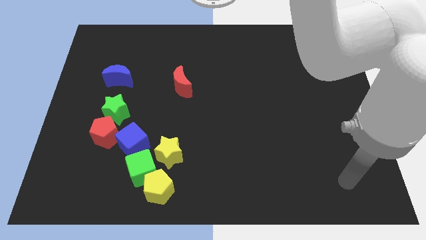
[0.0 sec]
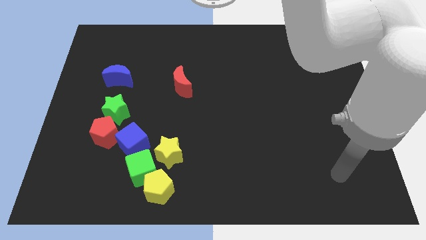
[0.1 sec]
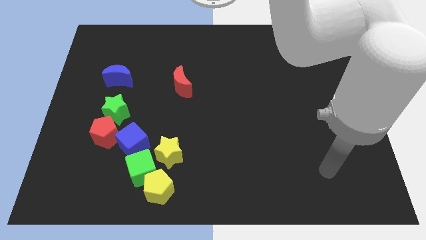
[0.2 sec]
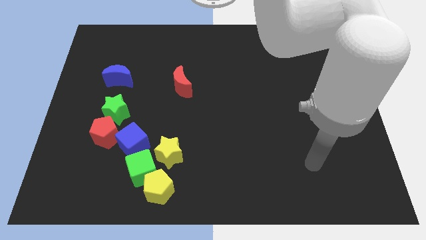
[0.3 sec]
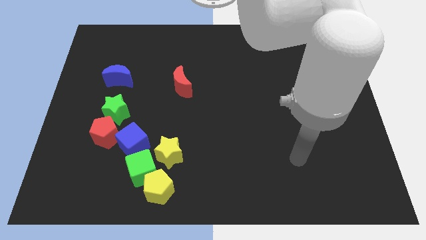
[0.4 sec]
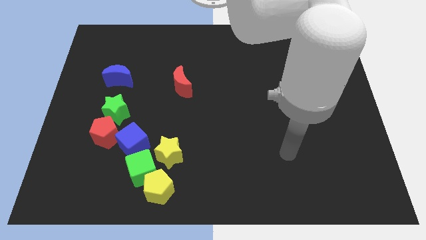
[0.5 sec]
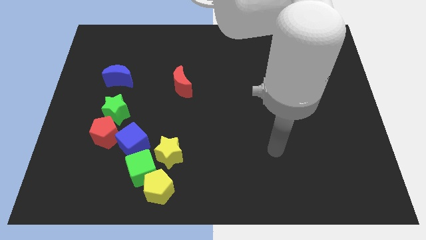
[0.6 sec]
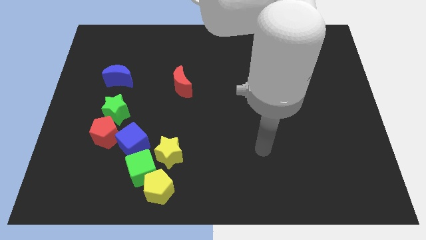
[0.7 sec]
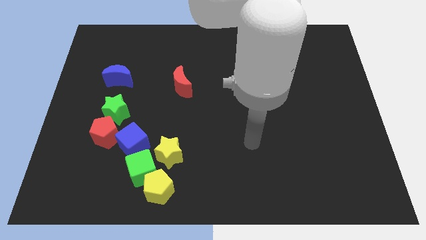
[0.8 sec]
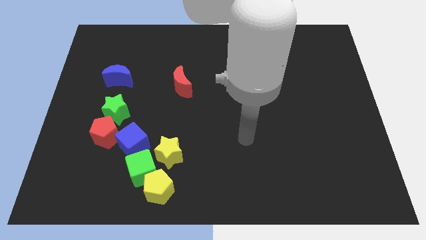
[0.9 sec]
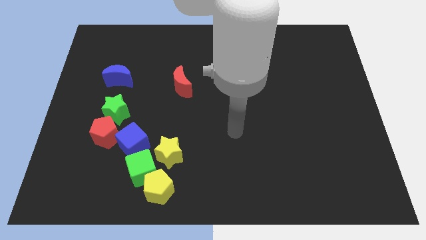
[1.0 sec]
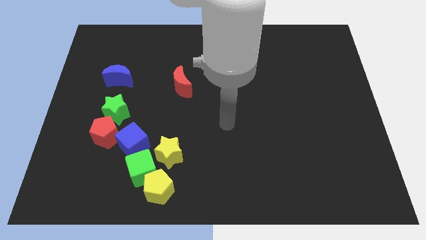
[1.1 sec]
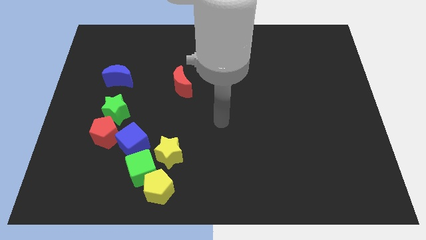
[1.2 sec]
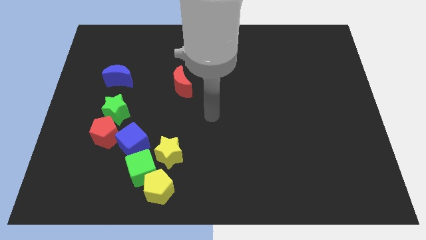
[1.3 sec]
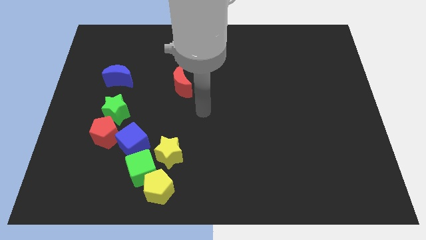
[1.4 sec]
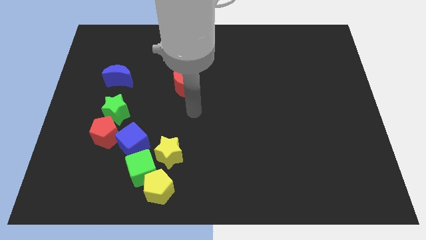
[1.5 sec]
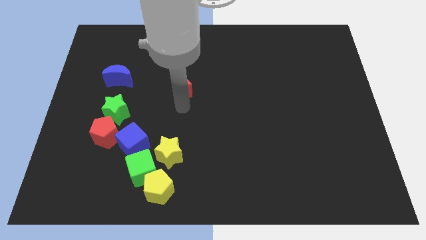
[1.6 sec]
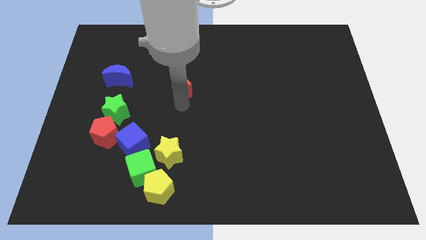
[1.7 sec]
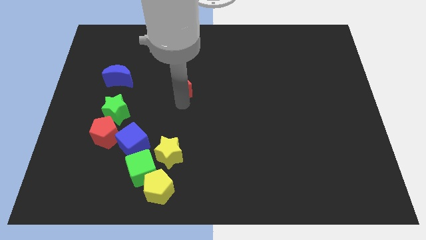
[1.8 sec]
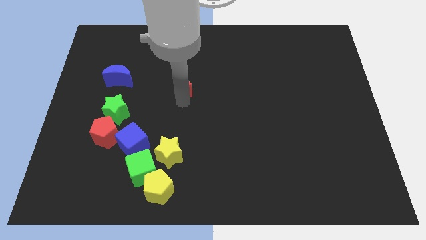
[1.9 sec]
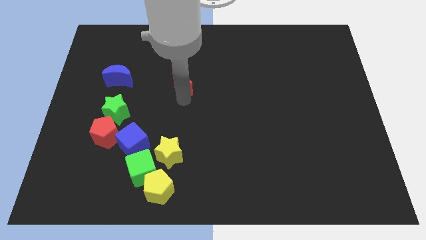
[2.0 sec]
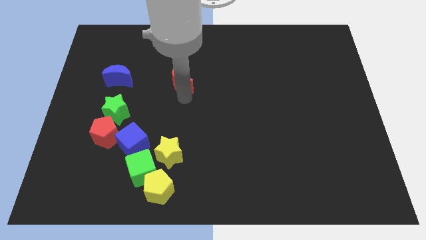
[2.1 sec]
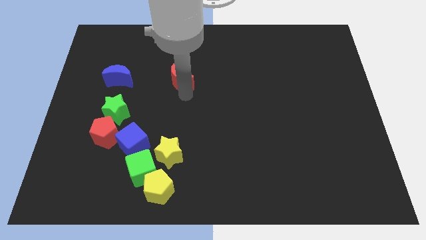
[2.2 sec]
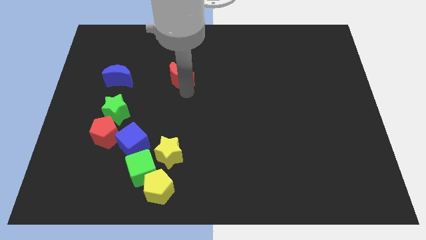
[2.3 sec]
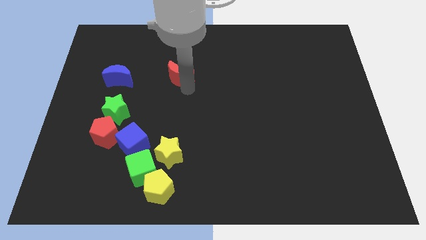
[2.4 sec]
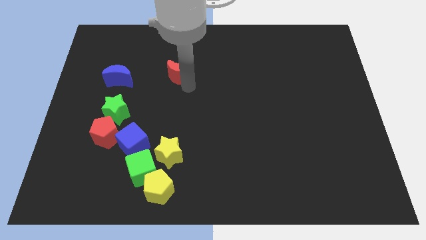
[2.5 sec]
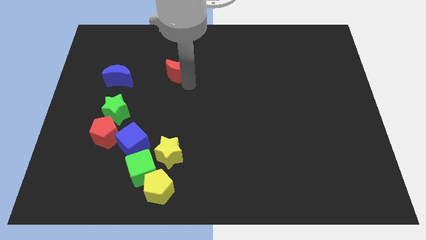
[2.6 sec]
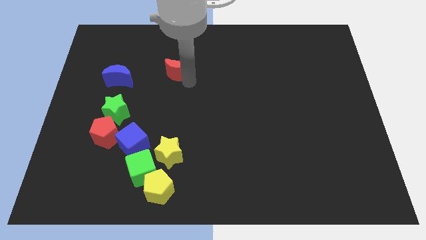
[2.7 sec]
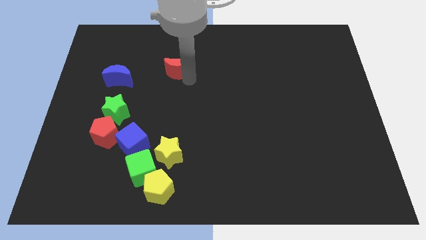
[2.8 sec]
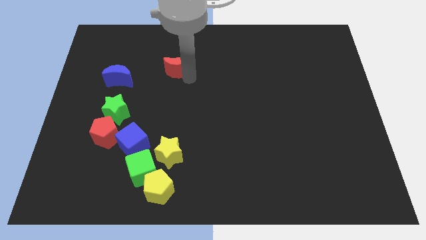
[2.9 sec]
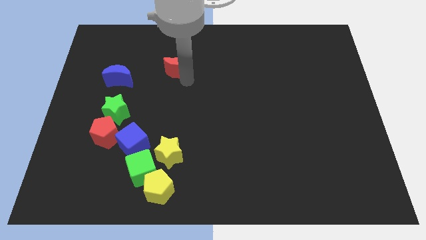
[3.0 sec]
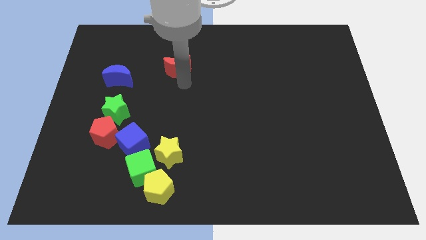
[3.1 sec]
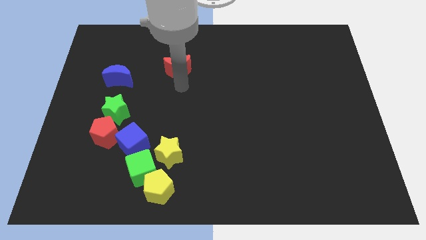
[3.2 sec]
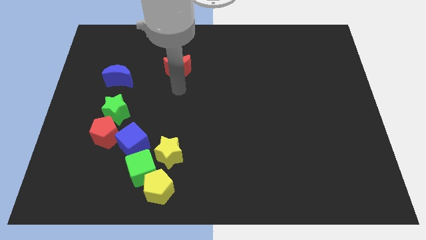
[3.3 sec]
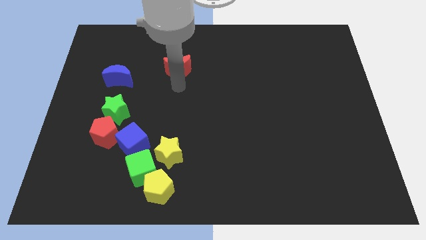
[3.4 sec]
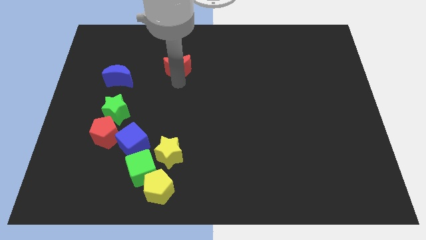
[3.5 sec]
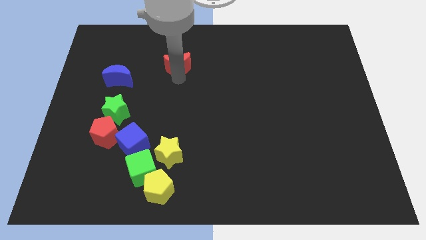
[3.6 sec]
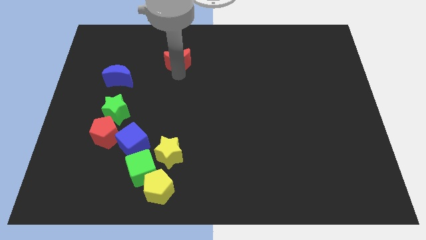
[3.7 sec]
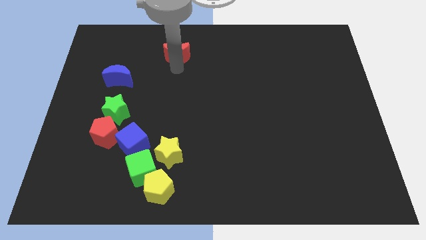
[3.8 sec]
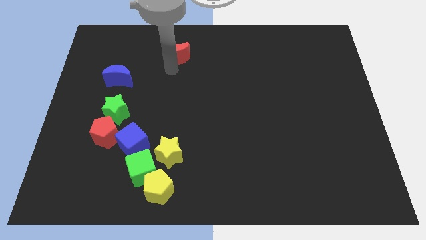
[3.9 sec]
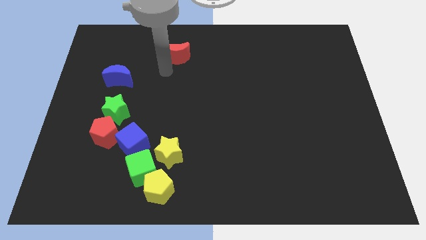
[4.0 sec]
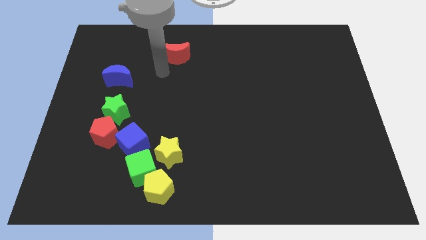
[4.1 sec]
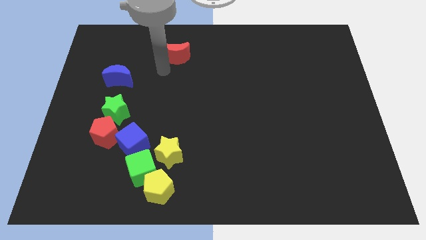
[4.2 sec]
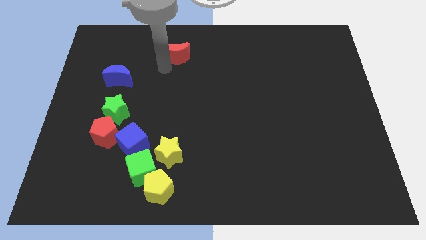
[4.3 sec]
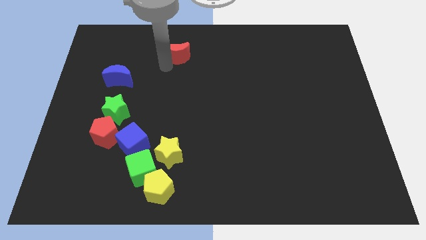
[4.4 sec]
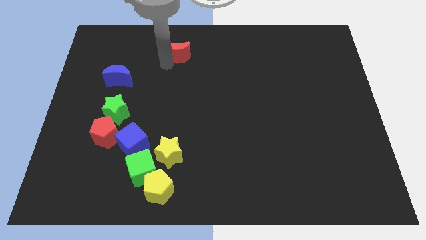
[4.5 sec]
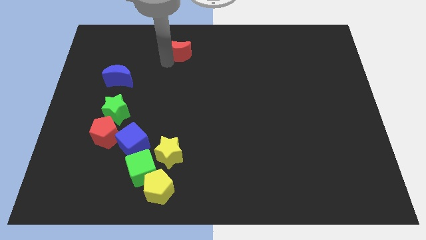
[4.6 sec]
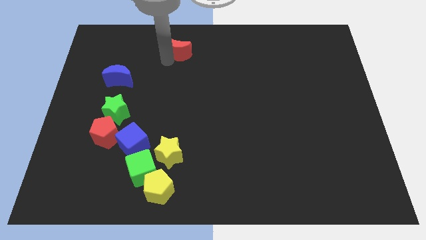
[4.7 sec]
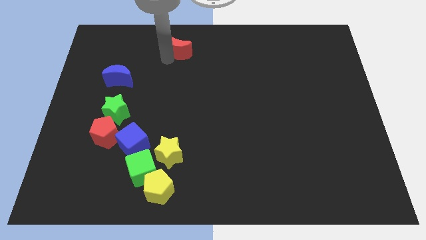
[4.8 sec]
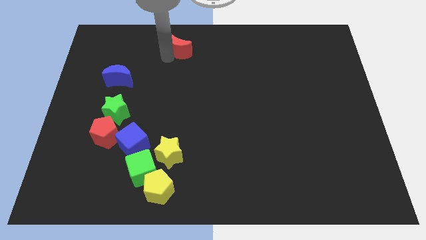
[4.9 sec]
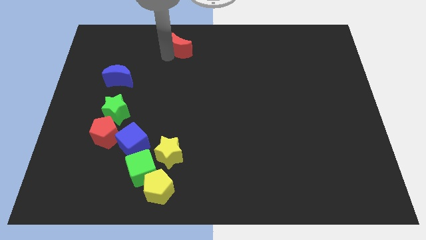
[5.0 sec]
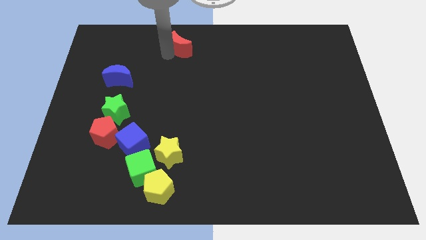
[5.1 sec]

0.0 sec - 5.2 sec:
push the red moon to the top

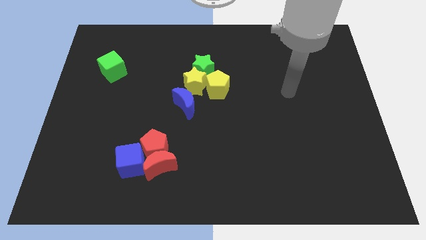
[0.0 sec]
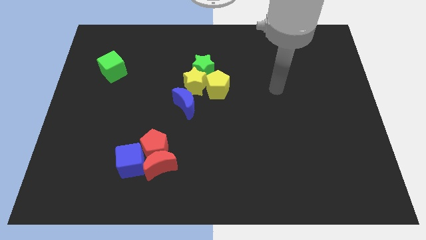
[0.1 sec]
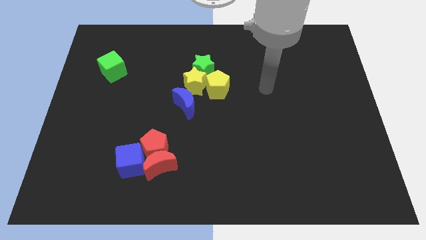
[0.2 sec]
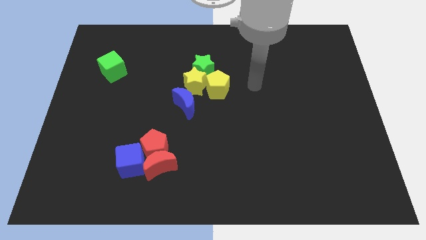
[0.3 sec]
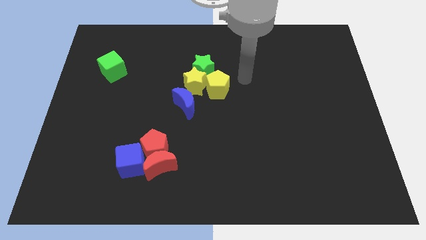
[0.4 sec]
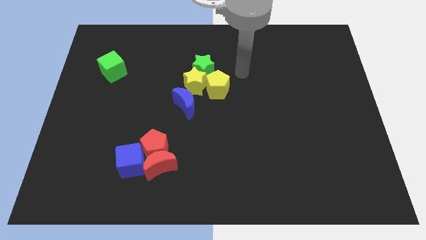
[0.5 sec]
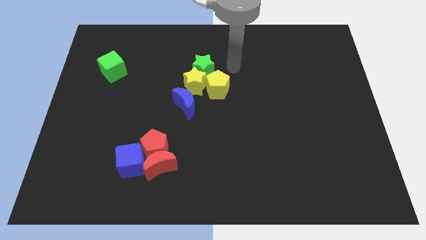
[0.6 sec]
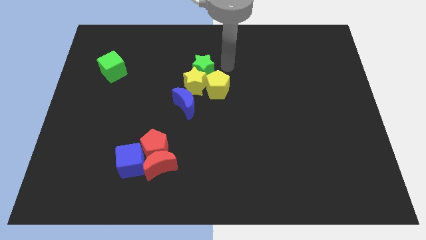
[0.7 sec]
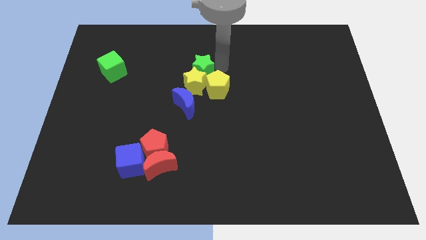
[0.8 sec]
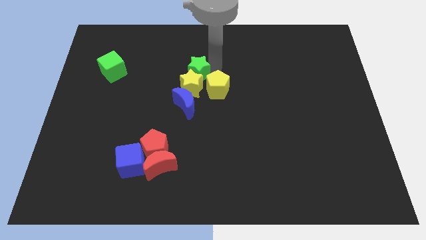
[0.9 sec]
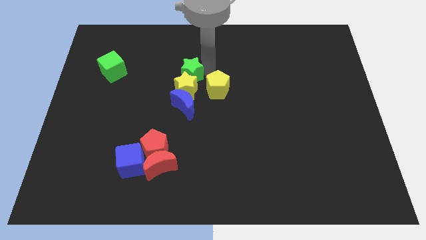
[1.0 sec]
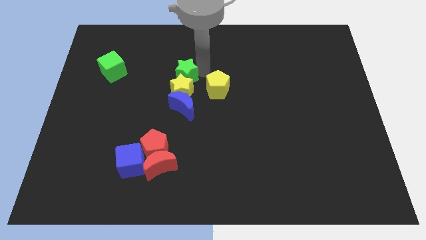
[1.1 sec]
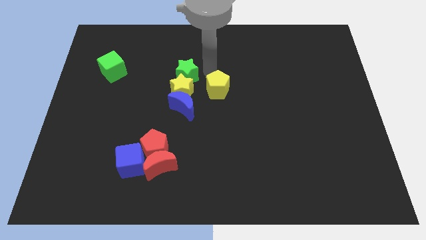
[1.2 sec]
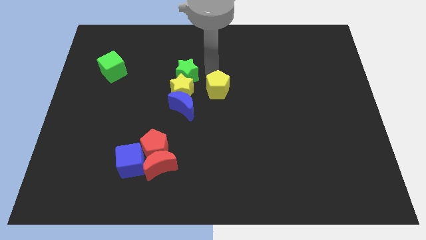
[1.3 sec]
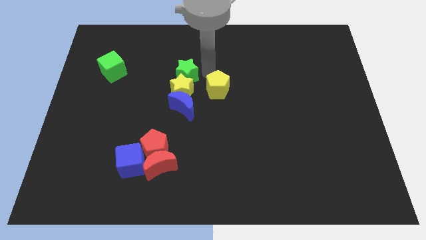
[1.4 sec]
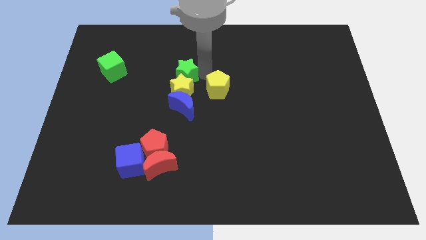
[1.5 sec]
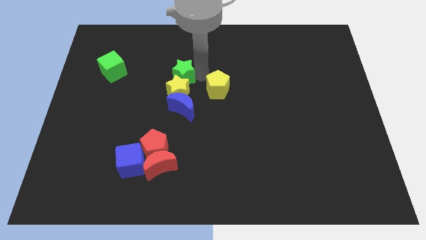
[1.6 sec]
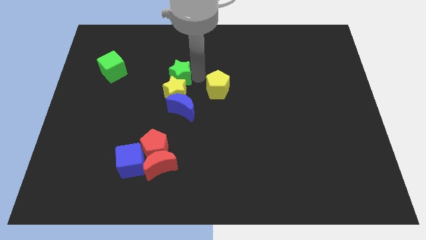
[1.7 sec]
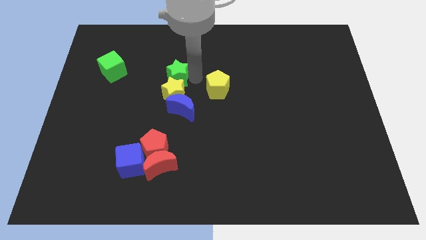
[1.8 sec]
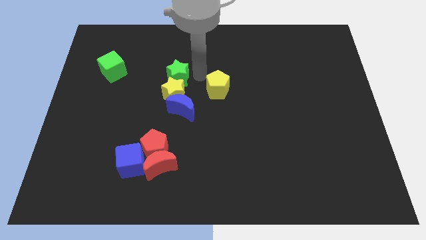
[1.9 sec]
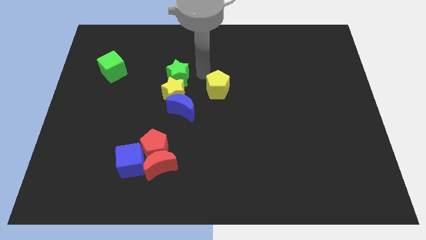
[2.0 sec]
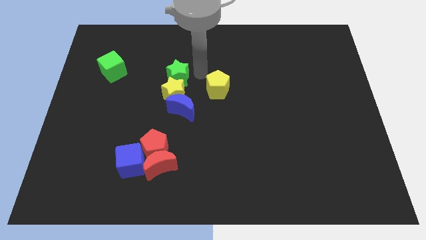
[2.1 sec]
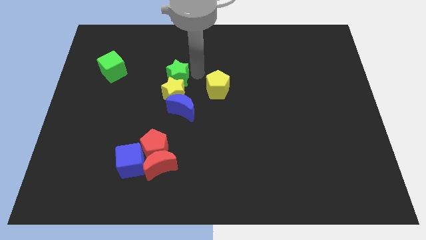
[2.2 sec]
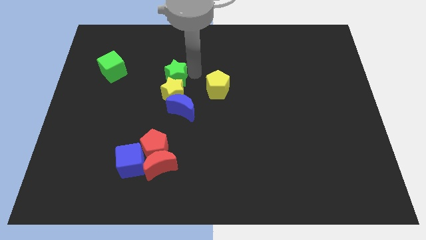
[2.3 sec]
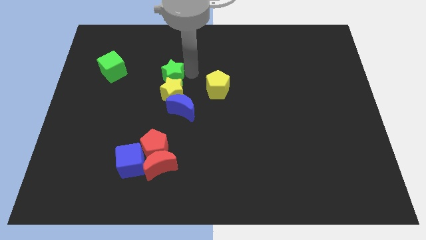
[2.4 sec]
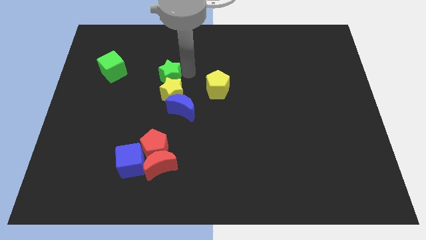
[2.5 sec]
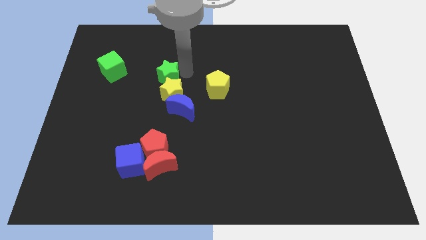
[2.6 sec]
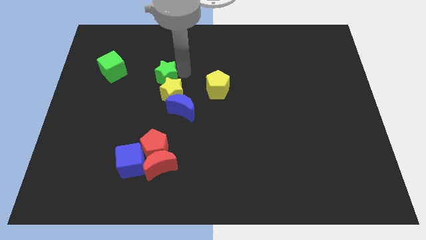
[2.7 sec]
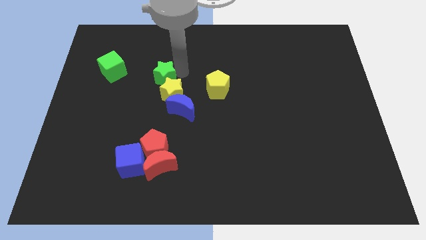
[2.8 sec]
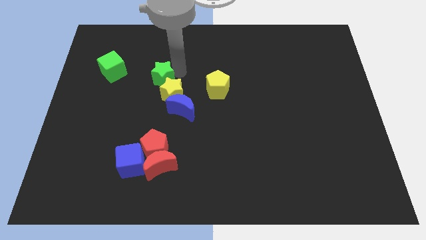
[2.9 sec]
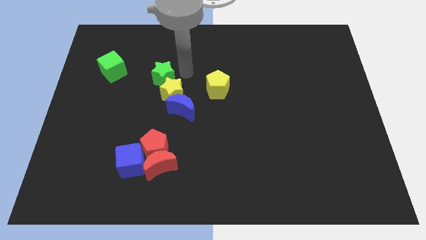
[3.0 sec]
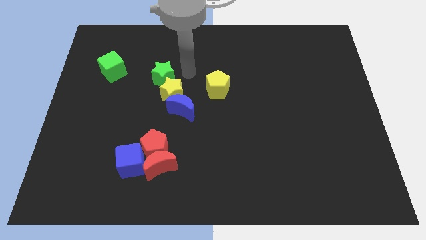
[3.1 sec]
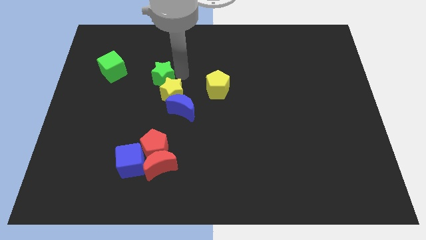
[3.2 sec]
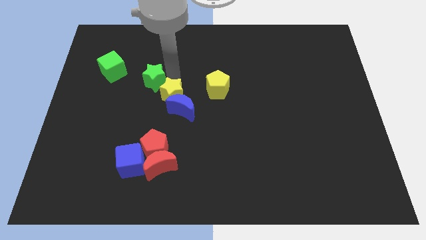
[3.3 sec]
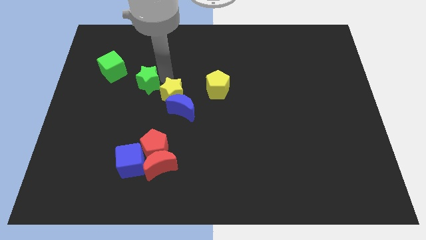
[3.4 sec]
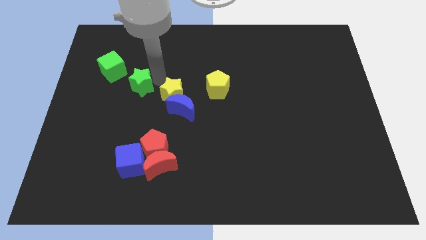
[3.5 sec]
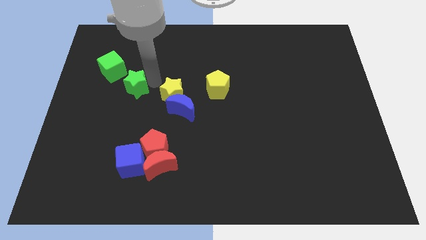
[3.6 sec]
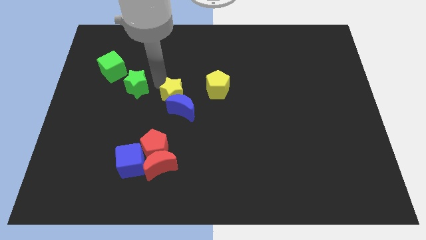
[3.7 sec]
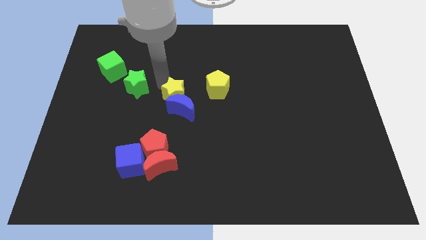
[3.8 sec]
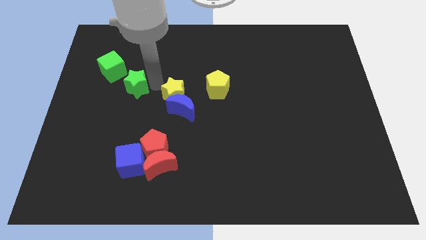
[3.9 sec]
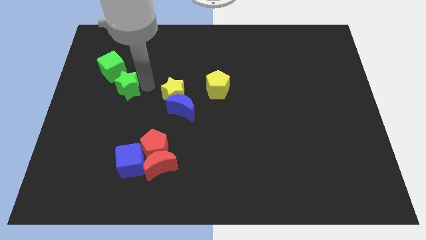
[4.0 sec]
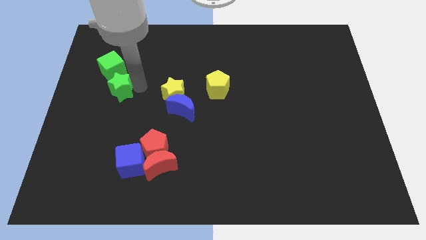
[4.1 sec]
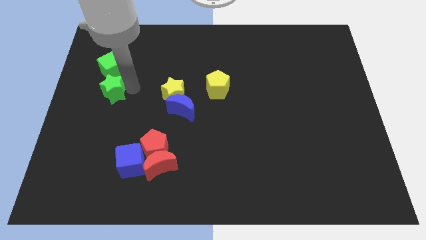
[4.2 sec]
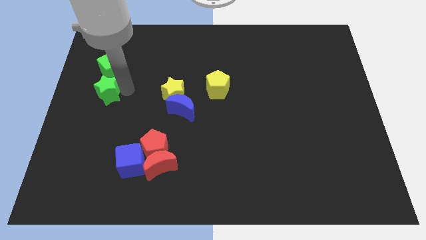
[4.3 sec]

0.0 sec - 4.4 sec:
move the green star to the left side of the board
